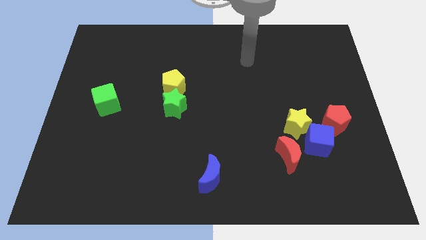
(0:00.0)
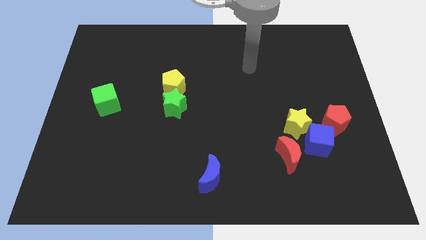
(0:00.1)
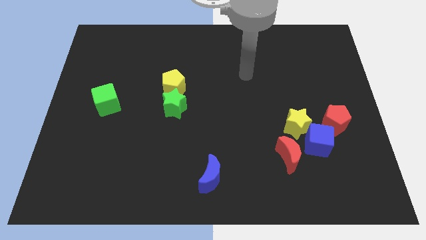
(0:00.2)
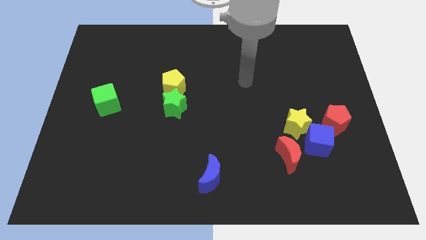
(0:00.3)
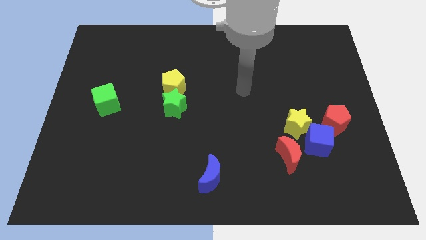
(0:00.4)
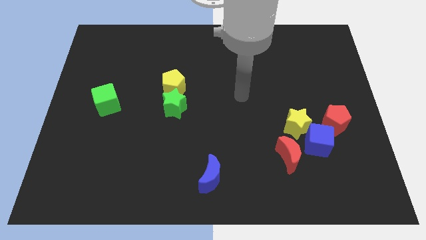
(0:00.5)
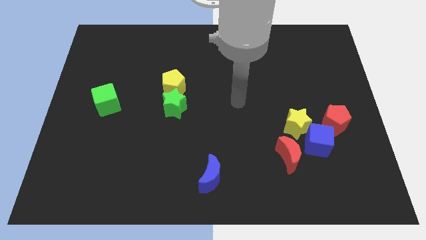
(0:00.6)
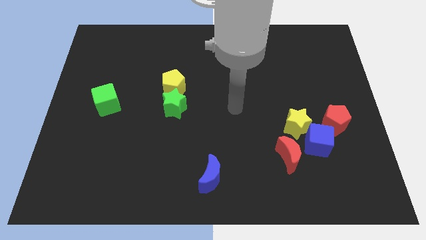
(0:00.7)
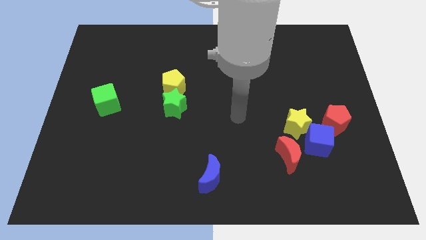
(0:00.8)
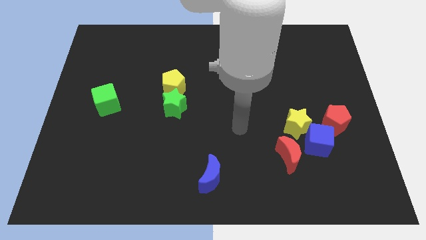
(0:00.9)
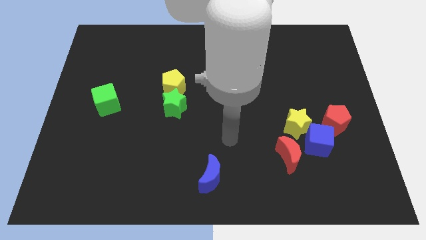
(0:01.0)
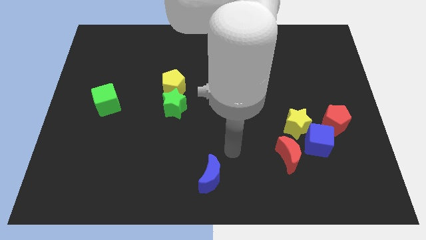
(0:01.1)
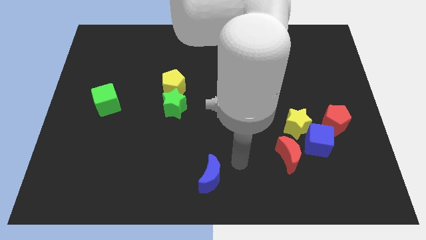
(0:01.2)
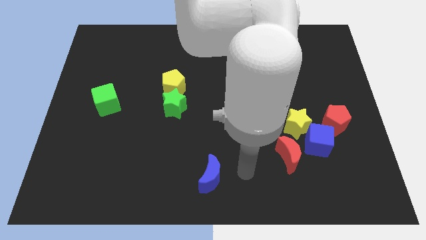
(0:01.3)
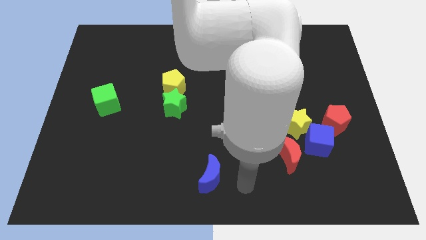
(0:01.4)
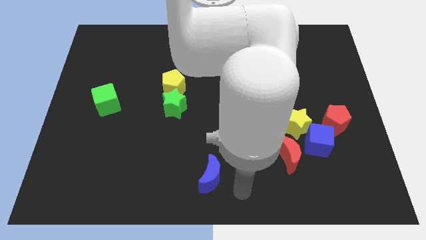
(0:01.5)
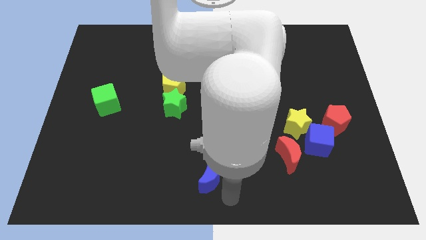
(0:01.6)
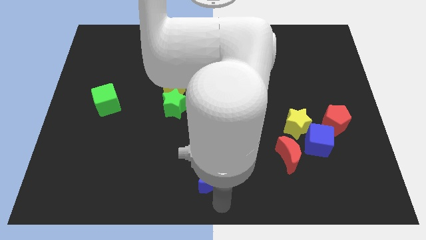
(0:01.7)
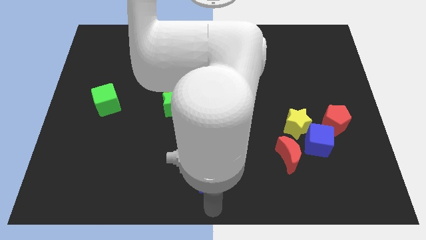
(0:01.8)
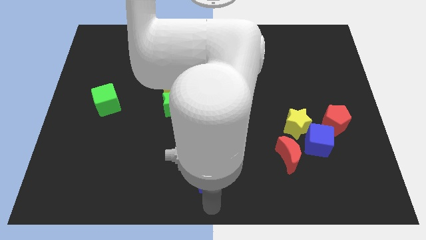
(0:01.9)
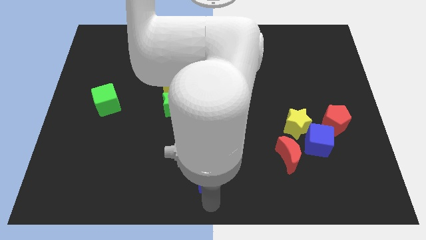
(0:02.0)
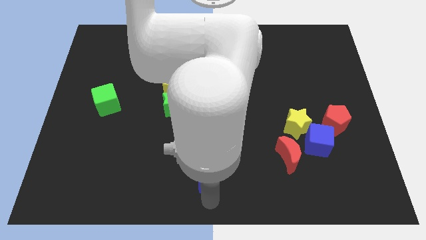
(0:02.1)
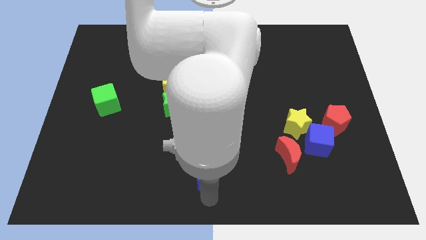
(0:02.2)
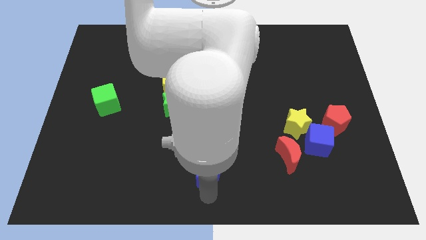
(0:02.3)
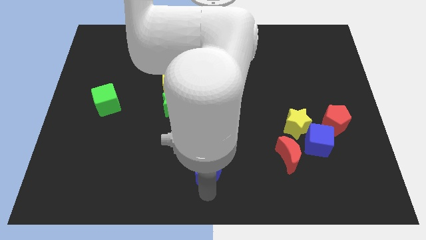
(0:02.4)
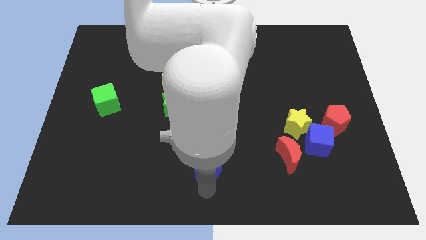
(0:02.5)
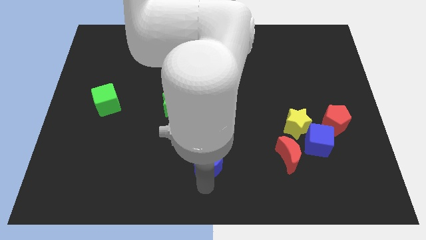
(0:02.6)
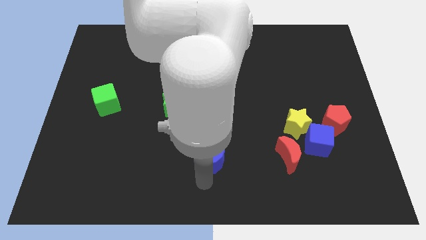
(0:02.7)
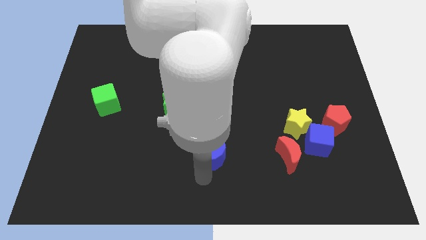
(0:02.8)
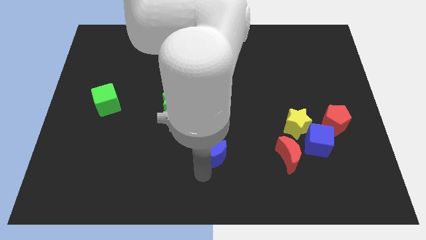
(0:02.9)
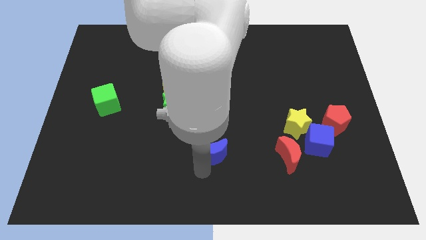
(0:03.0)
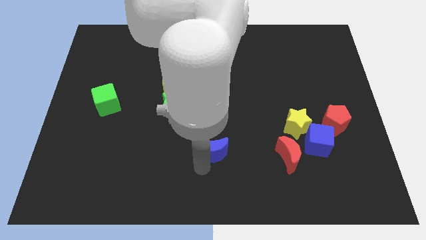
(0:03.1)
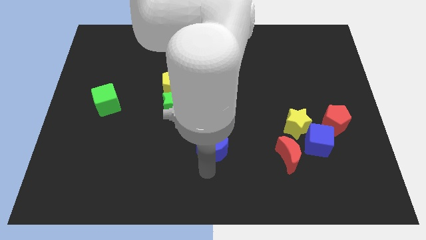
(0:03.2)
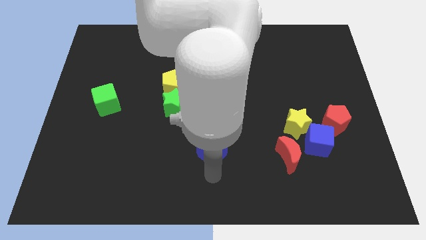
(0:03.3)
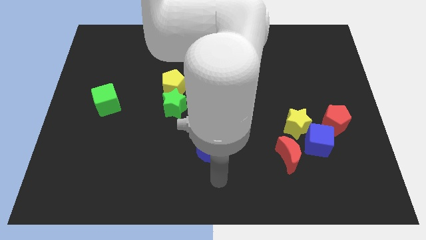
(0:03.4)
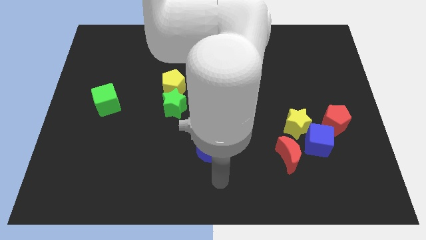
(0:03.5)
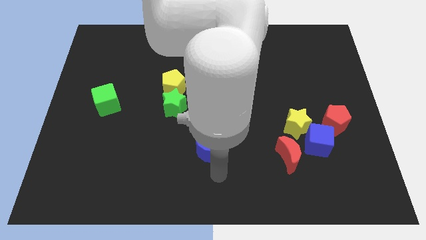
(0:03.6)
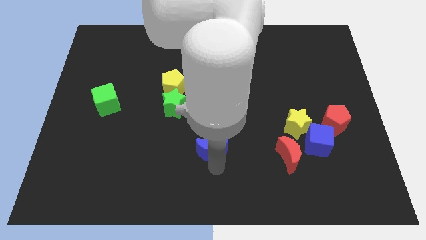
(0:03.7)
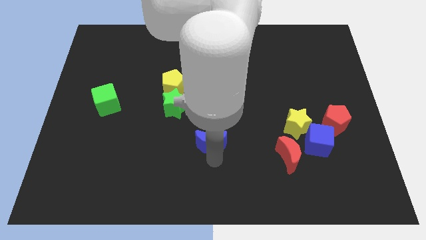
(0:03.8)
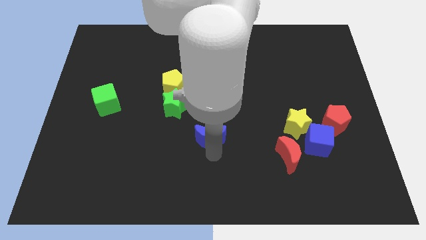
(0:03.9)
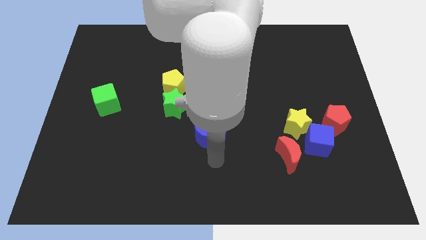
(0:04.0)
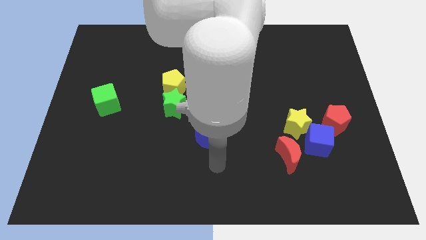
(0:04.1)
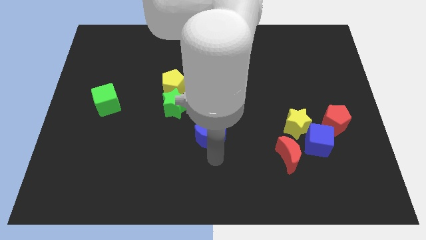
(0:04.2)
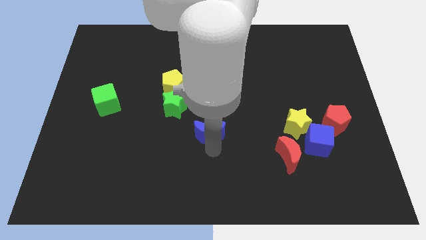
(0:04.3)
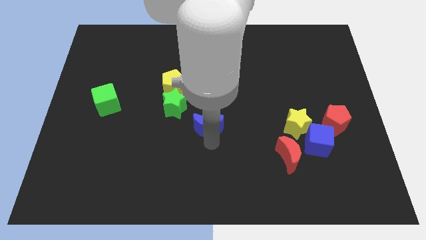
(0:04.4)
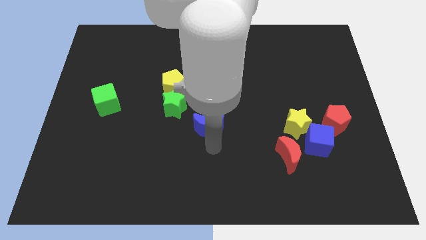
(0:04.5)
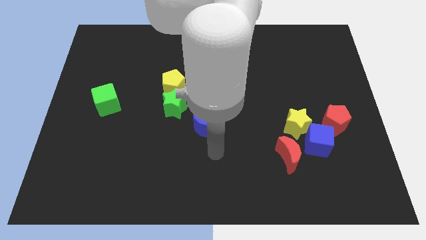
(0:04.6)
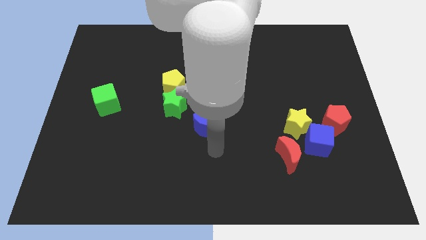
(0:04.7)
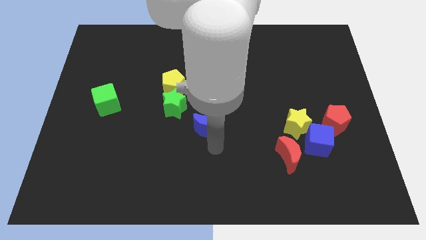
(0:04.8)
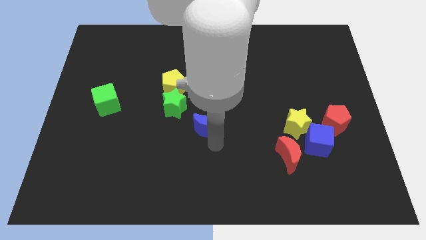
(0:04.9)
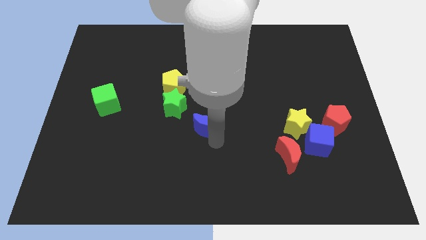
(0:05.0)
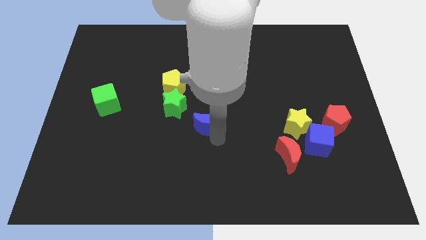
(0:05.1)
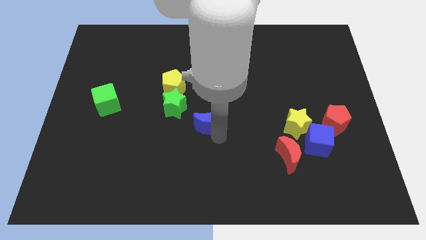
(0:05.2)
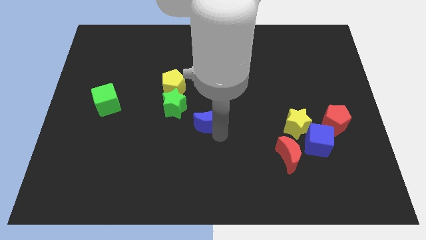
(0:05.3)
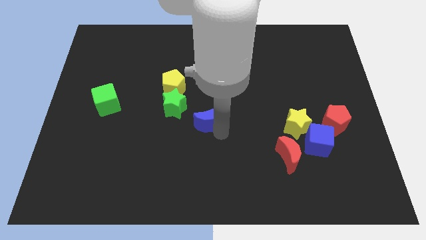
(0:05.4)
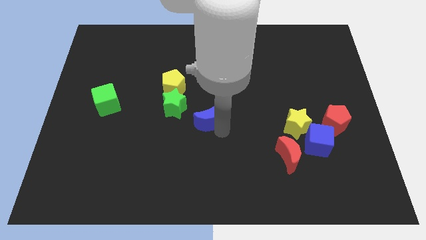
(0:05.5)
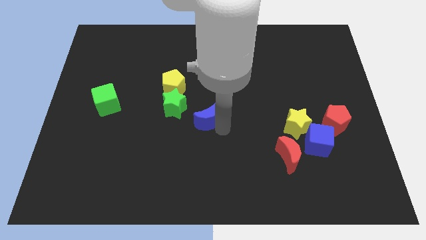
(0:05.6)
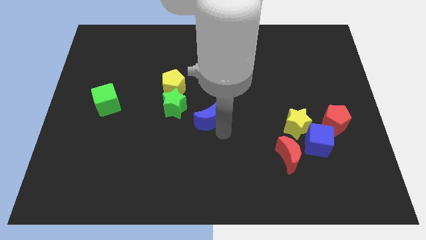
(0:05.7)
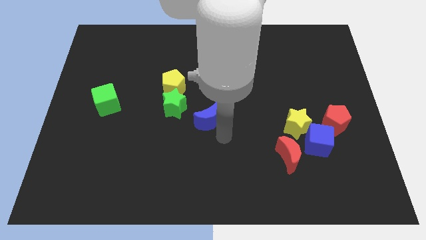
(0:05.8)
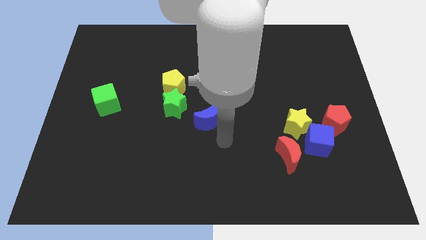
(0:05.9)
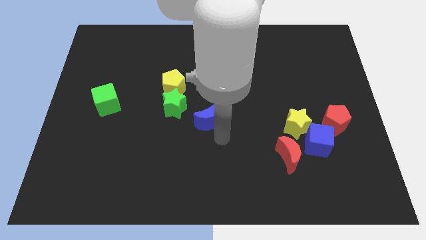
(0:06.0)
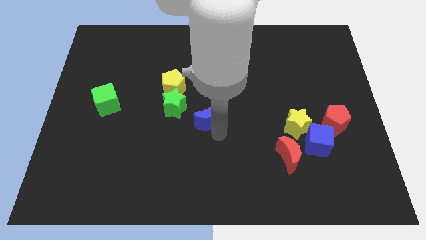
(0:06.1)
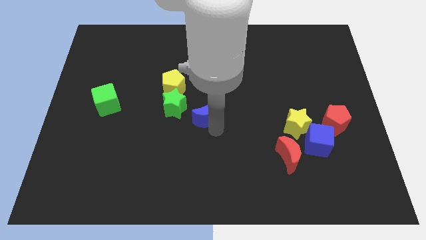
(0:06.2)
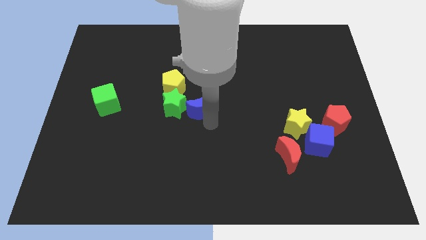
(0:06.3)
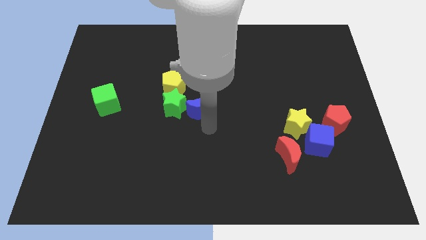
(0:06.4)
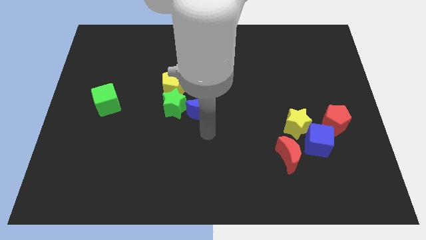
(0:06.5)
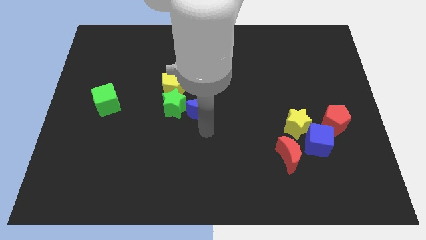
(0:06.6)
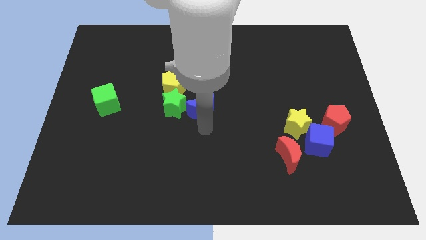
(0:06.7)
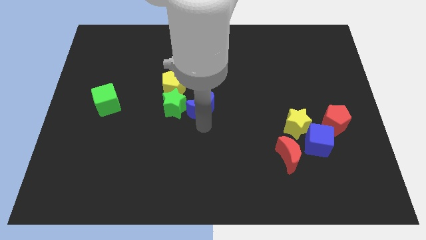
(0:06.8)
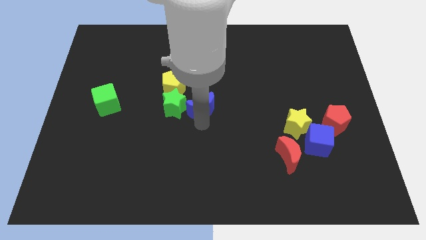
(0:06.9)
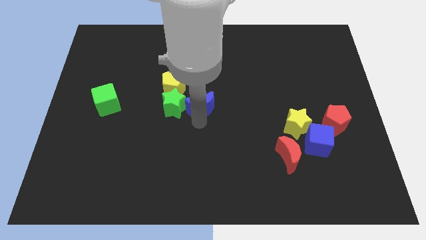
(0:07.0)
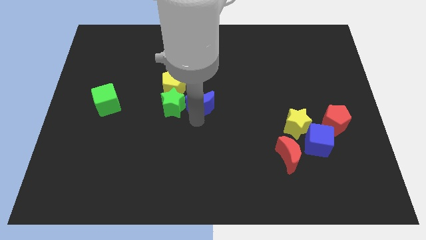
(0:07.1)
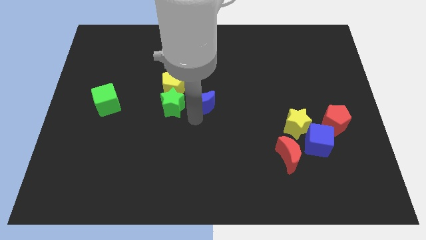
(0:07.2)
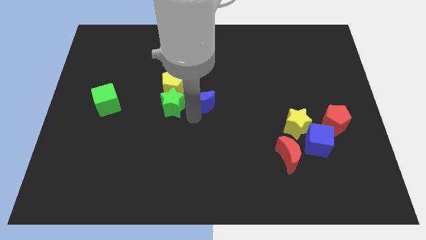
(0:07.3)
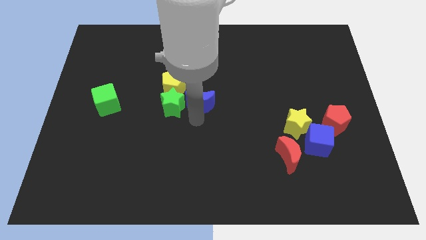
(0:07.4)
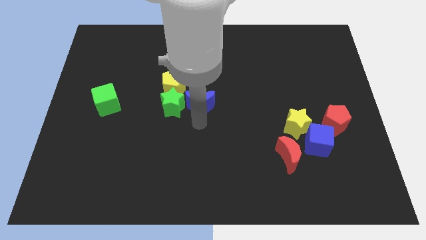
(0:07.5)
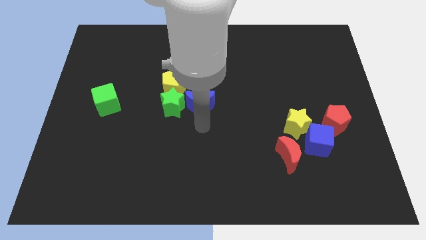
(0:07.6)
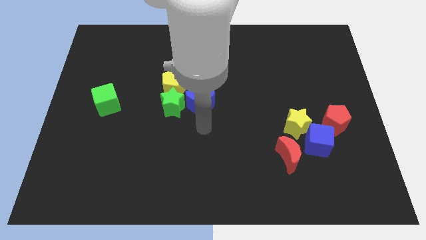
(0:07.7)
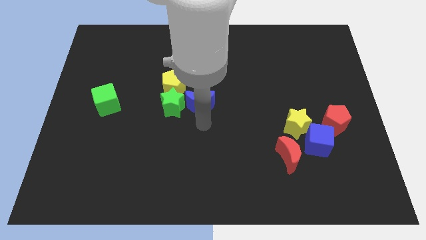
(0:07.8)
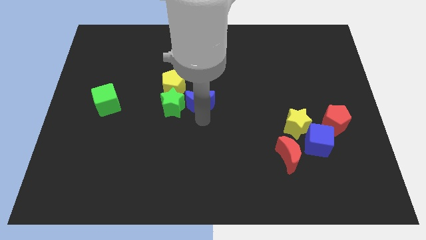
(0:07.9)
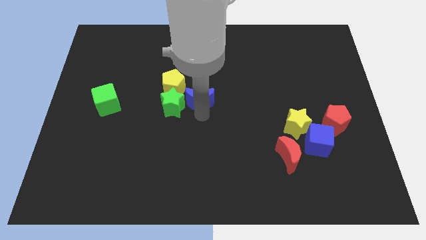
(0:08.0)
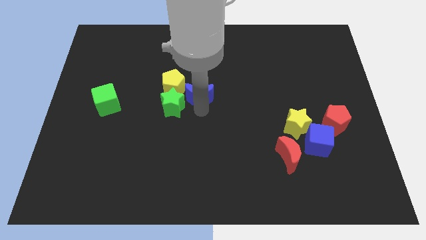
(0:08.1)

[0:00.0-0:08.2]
slide the blue moon up

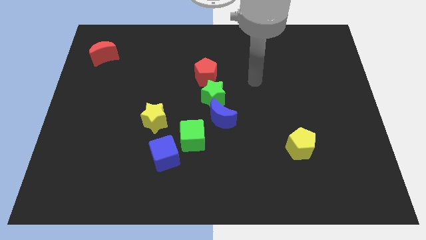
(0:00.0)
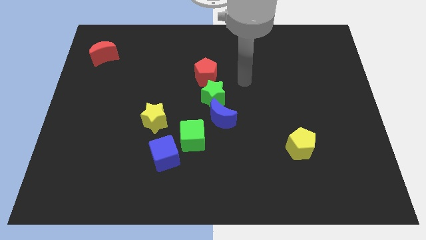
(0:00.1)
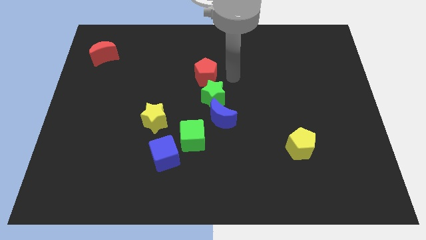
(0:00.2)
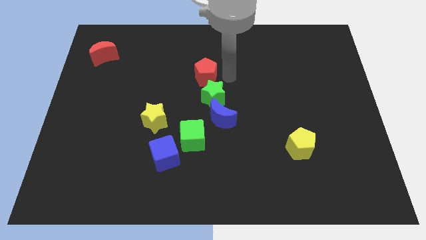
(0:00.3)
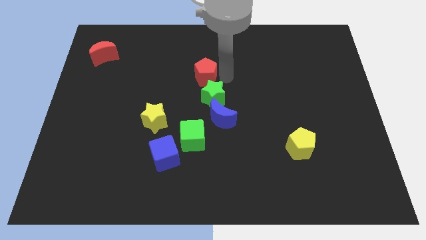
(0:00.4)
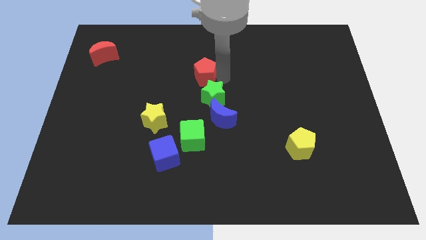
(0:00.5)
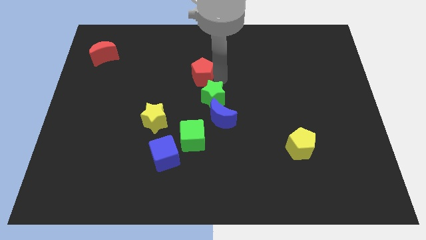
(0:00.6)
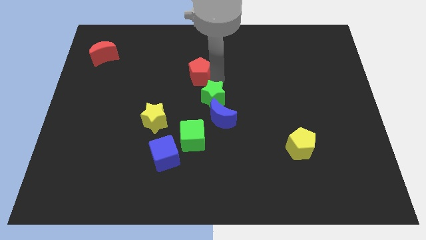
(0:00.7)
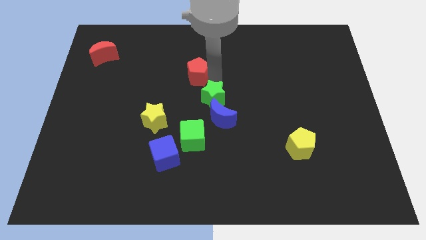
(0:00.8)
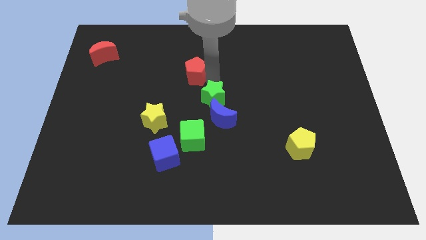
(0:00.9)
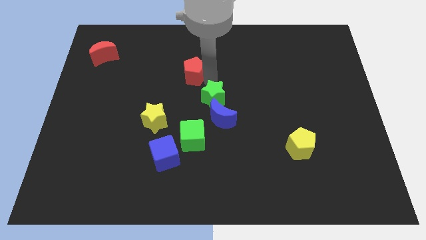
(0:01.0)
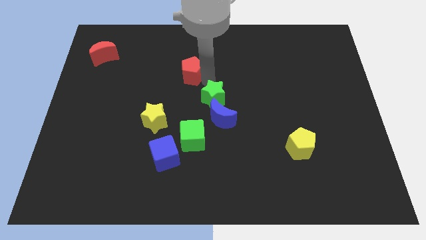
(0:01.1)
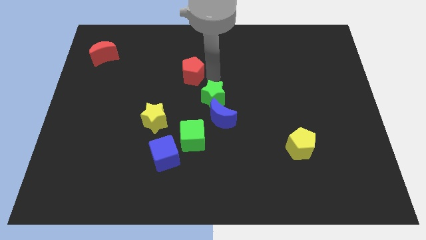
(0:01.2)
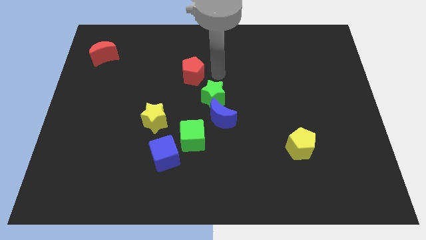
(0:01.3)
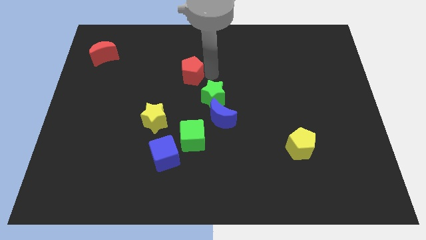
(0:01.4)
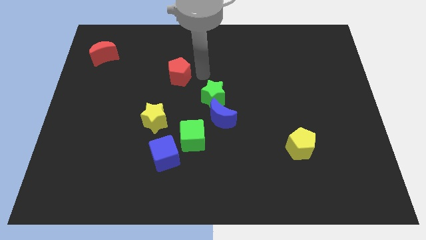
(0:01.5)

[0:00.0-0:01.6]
slide the red pentagon left a little bit
